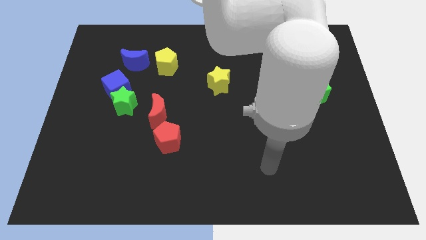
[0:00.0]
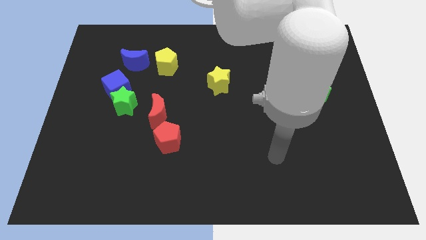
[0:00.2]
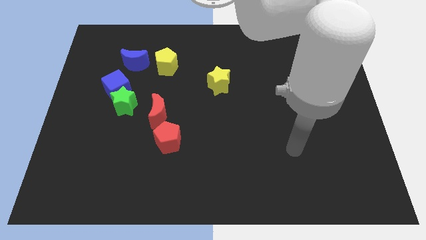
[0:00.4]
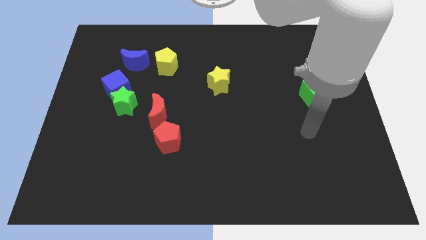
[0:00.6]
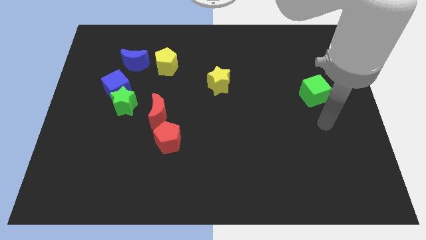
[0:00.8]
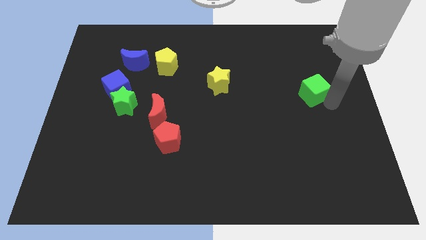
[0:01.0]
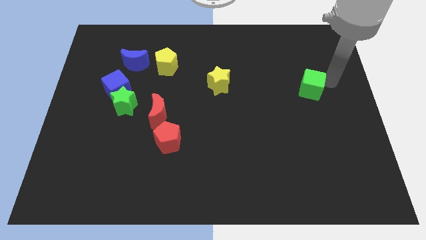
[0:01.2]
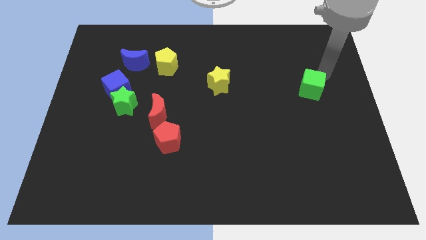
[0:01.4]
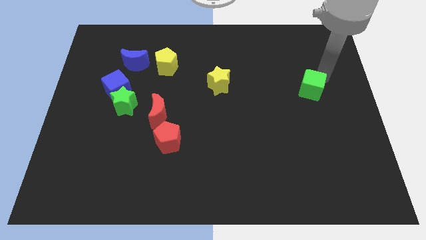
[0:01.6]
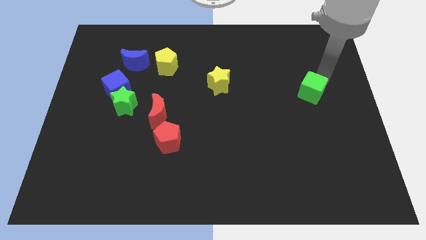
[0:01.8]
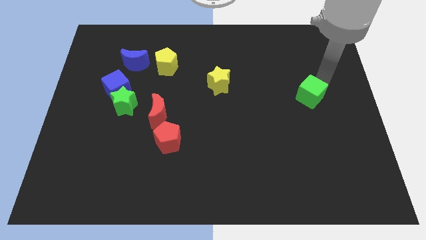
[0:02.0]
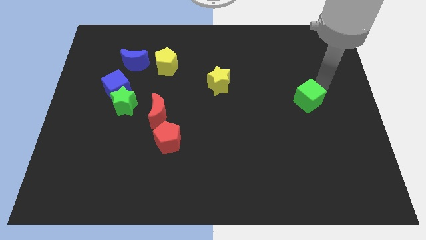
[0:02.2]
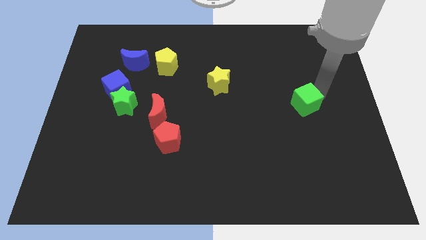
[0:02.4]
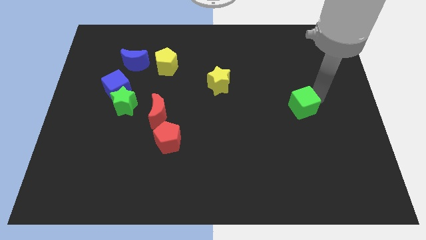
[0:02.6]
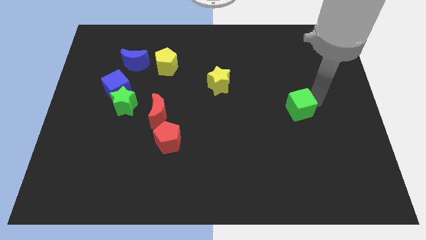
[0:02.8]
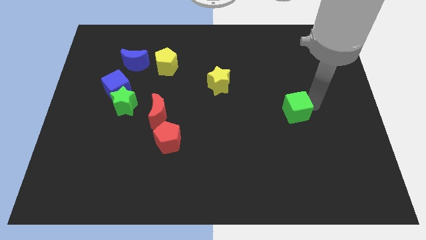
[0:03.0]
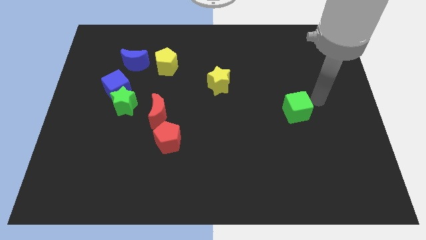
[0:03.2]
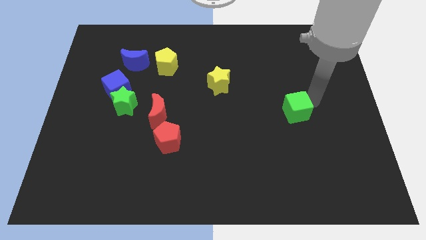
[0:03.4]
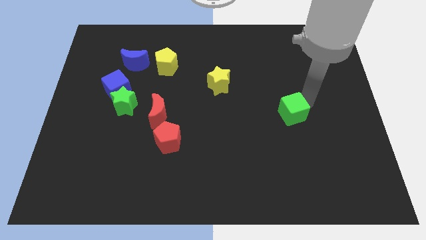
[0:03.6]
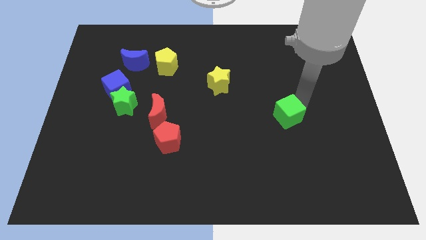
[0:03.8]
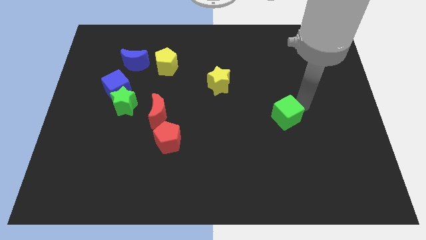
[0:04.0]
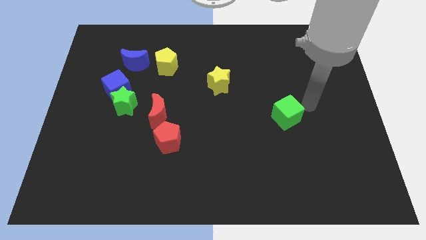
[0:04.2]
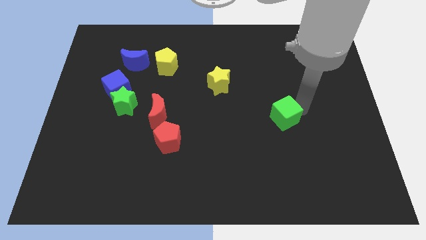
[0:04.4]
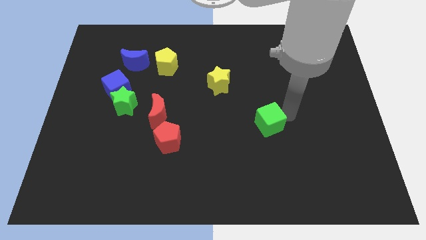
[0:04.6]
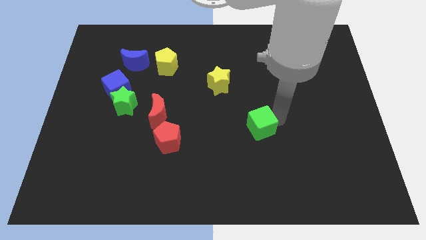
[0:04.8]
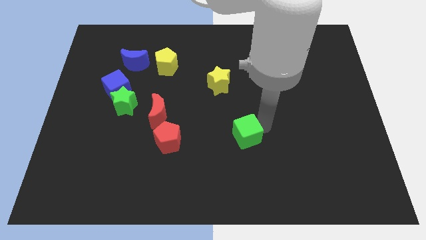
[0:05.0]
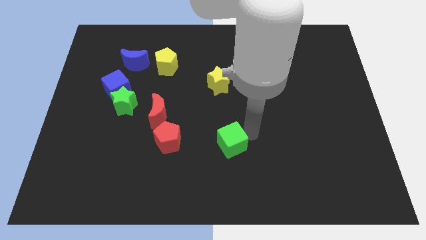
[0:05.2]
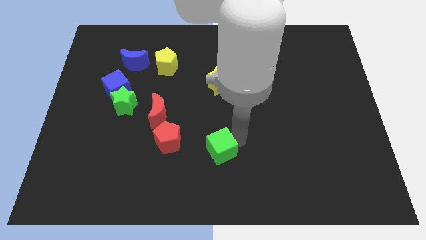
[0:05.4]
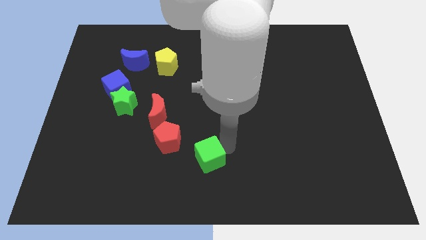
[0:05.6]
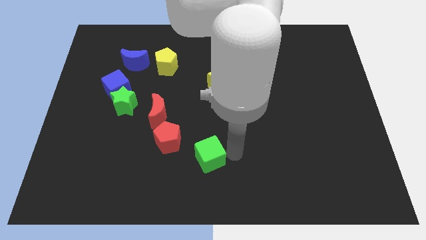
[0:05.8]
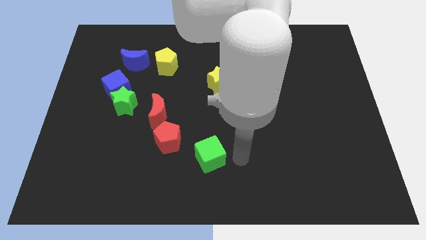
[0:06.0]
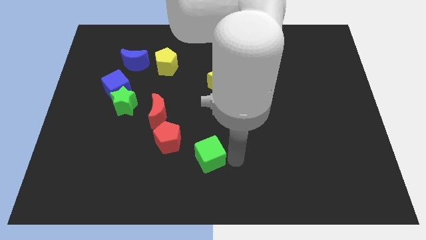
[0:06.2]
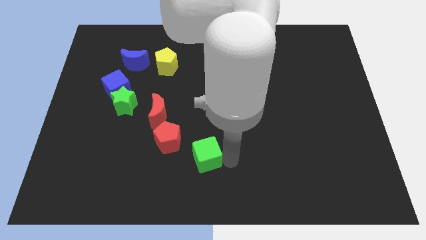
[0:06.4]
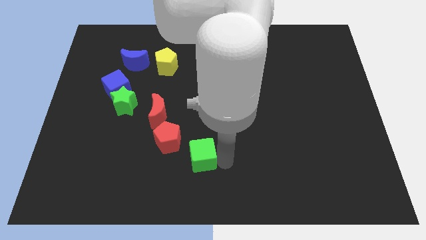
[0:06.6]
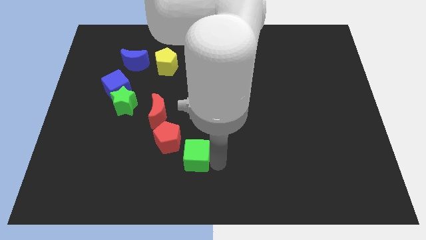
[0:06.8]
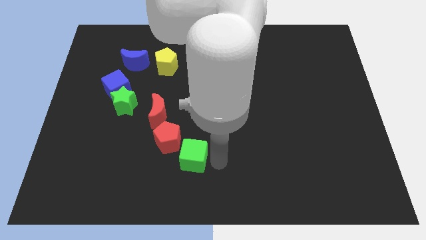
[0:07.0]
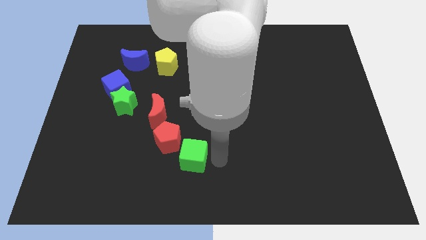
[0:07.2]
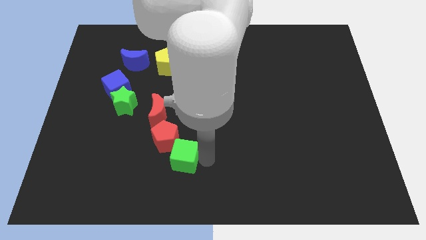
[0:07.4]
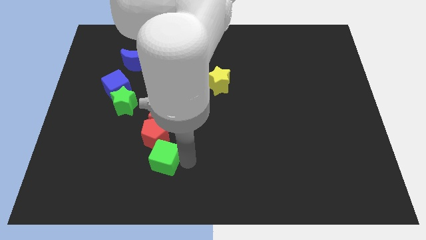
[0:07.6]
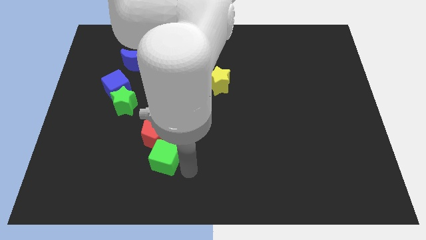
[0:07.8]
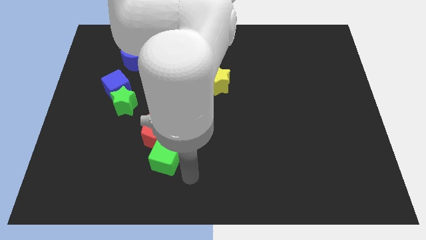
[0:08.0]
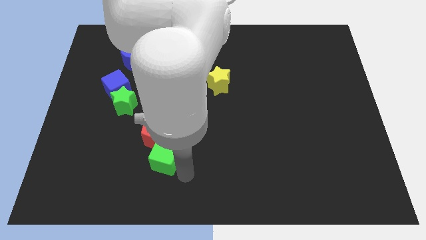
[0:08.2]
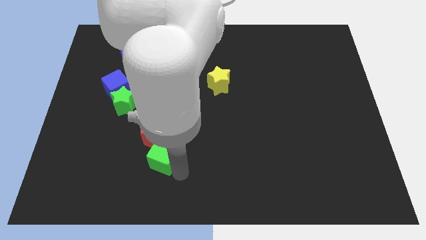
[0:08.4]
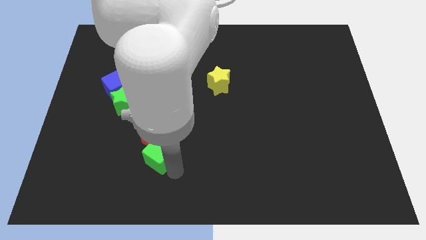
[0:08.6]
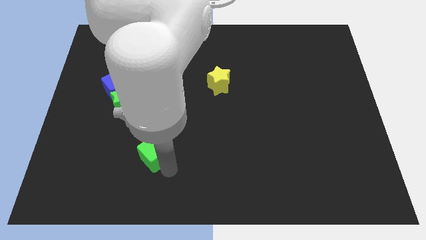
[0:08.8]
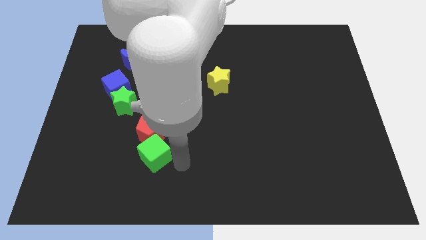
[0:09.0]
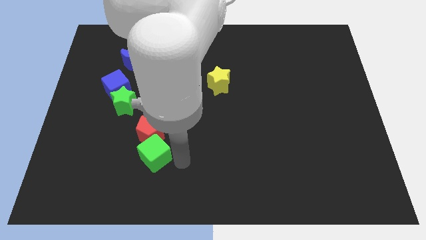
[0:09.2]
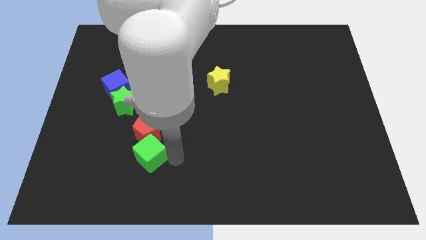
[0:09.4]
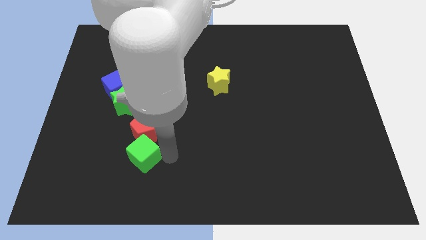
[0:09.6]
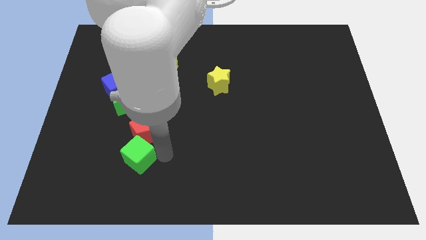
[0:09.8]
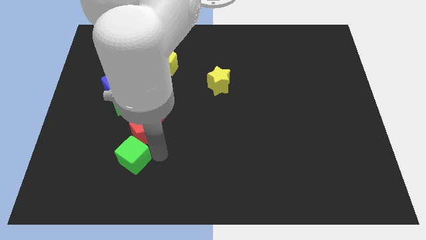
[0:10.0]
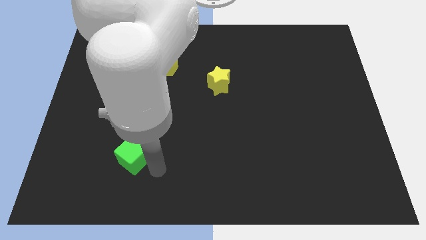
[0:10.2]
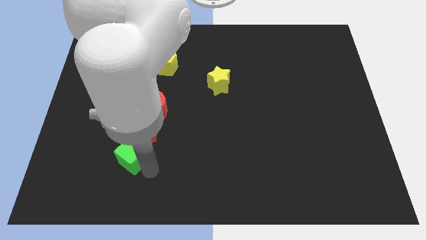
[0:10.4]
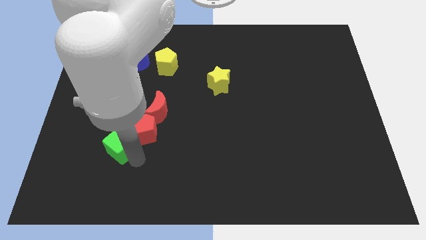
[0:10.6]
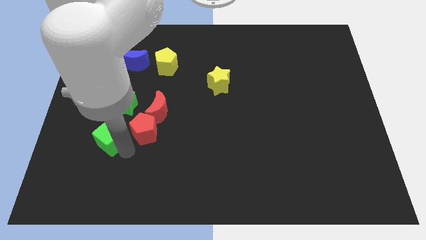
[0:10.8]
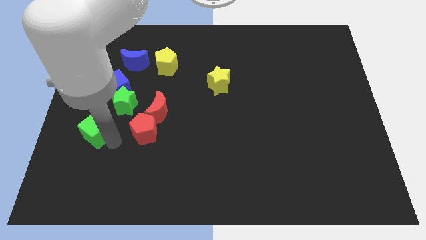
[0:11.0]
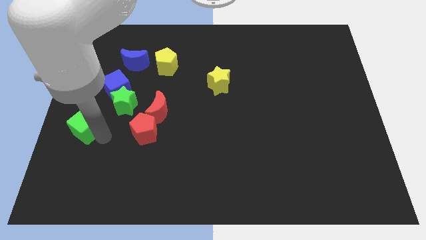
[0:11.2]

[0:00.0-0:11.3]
move the green cube to the center left

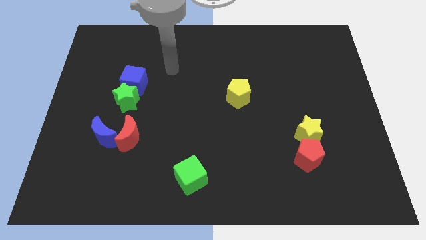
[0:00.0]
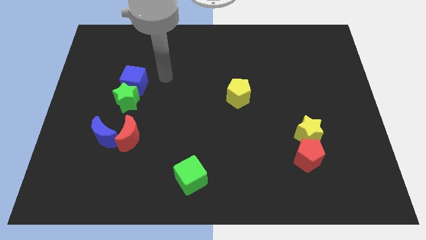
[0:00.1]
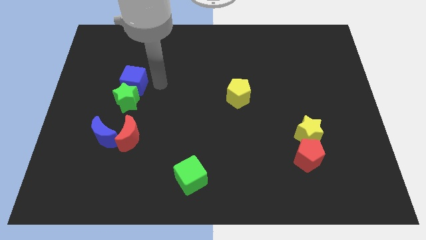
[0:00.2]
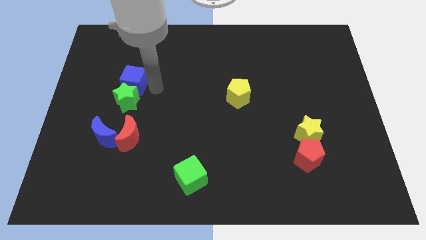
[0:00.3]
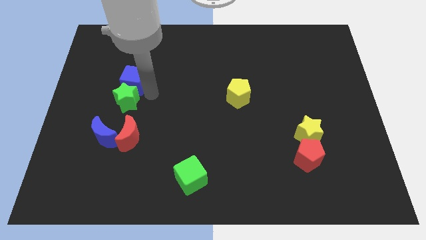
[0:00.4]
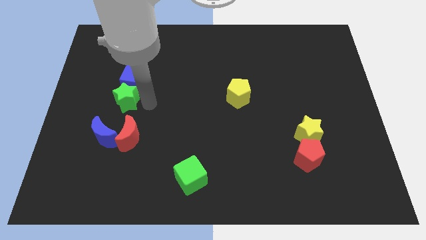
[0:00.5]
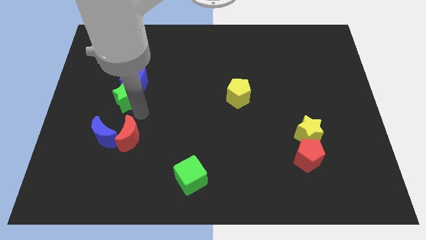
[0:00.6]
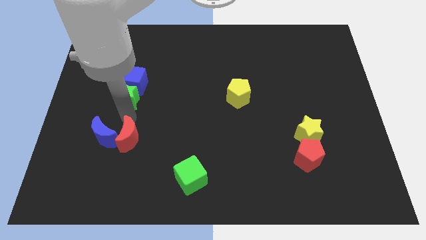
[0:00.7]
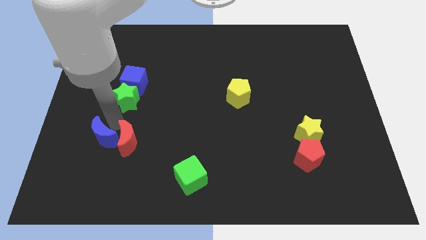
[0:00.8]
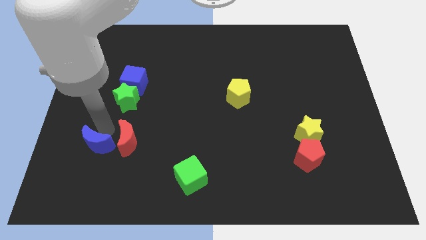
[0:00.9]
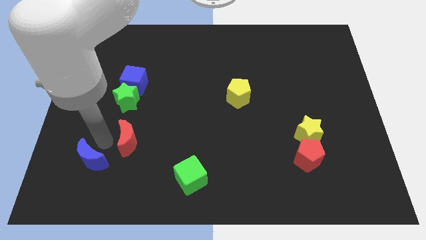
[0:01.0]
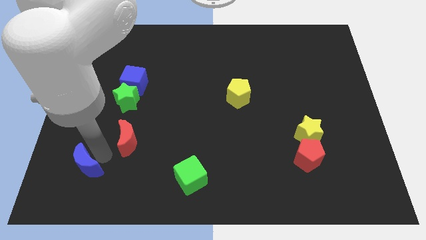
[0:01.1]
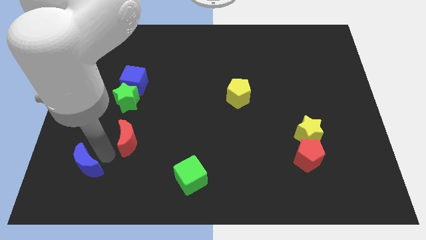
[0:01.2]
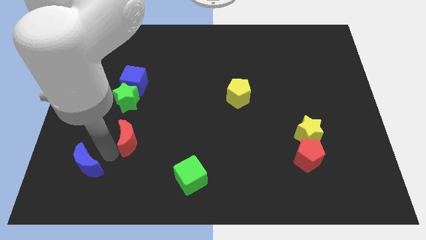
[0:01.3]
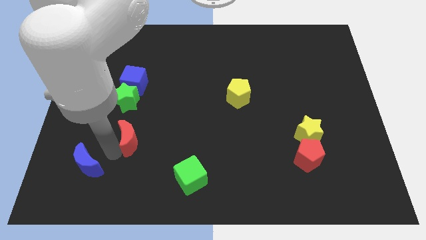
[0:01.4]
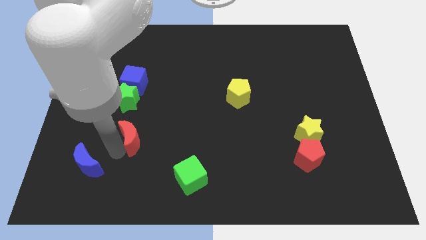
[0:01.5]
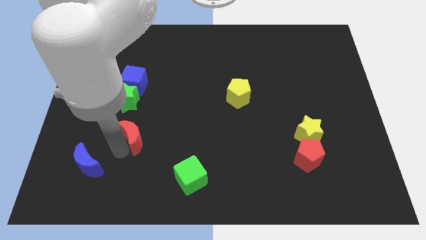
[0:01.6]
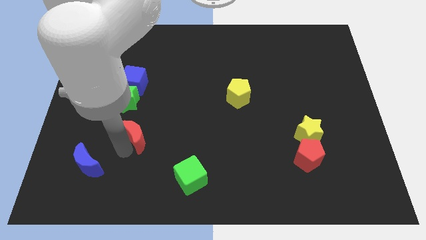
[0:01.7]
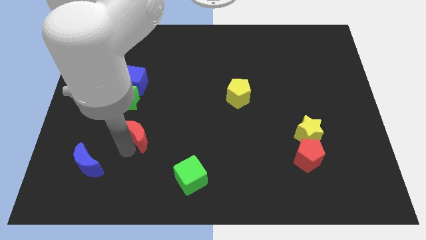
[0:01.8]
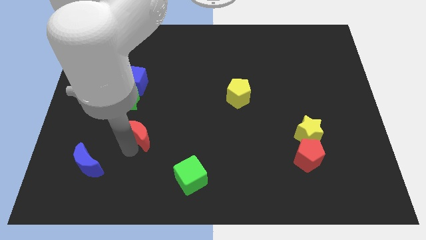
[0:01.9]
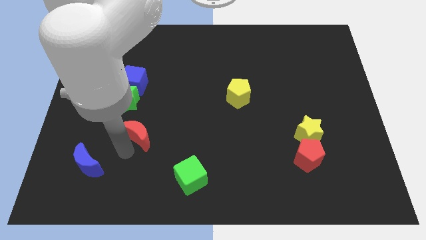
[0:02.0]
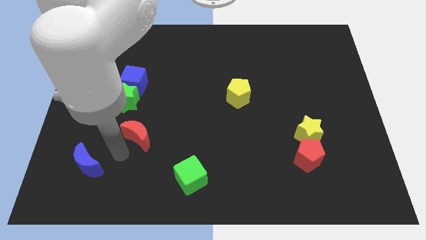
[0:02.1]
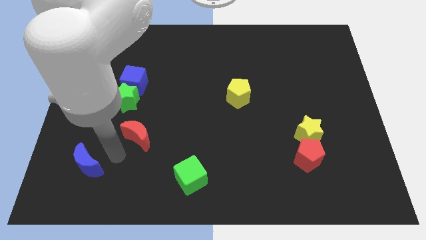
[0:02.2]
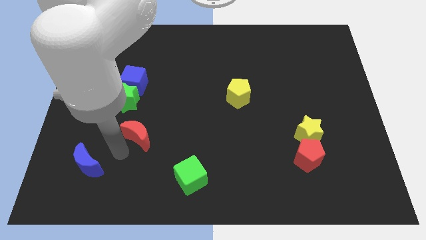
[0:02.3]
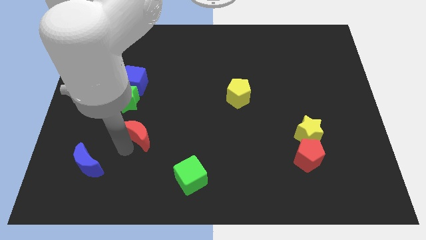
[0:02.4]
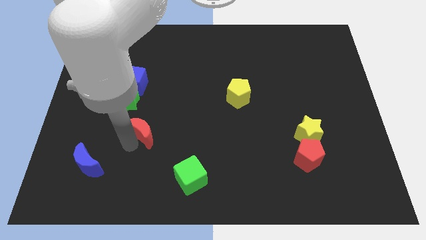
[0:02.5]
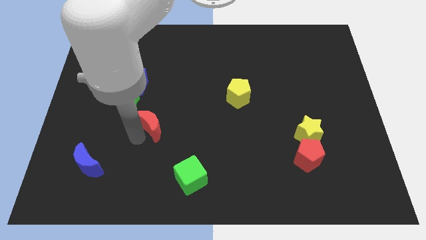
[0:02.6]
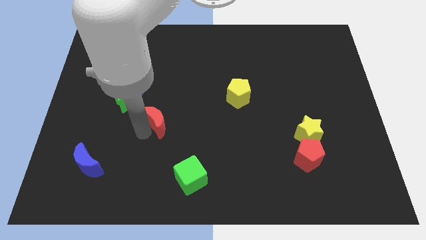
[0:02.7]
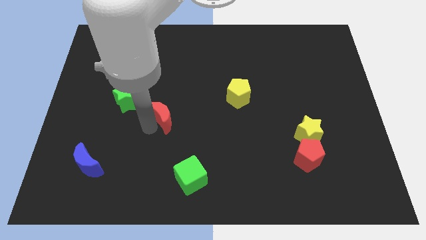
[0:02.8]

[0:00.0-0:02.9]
move the red moon to the middle of the board
